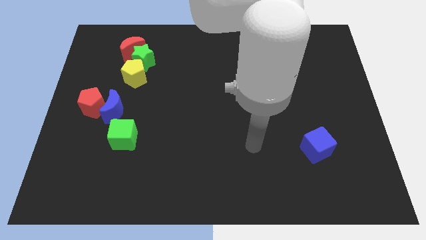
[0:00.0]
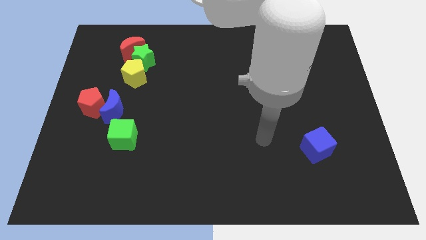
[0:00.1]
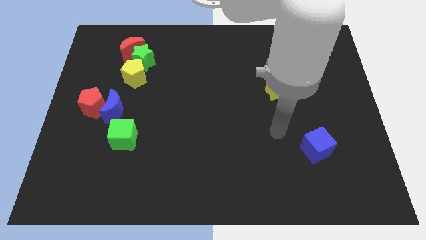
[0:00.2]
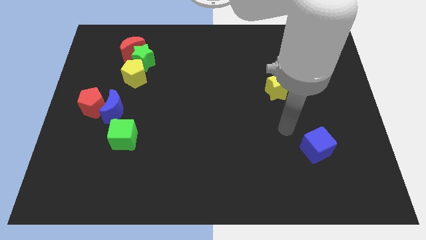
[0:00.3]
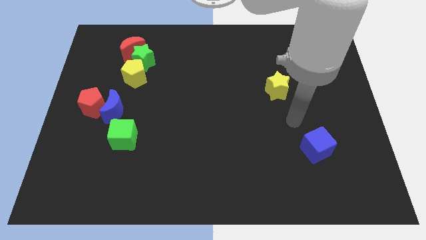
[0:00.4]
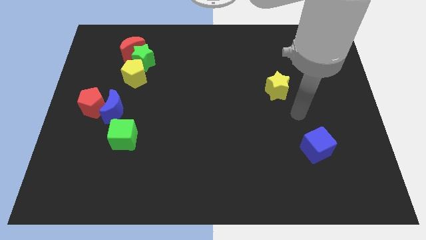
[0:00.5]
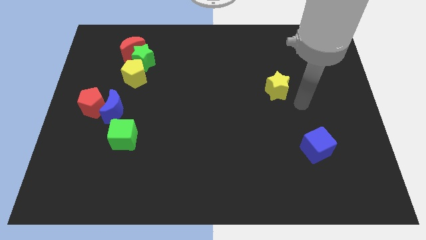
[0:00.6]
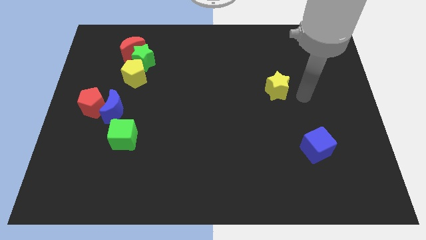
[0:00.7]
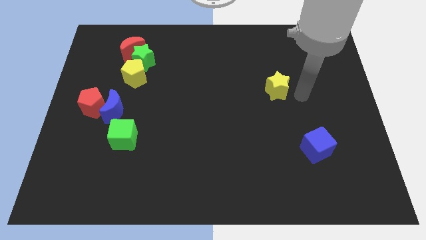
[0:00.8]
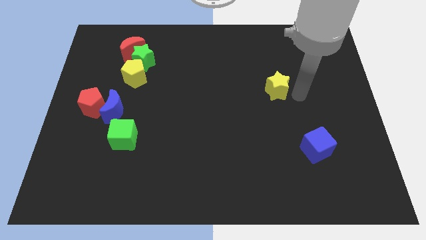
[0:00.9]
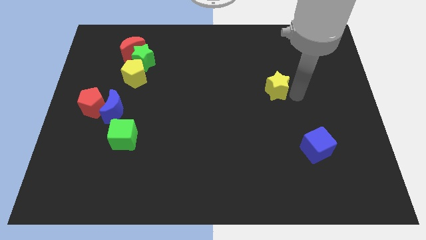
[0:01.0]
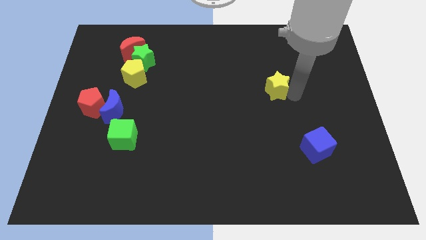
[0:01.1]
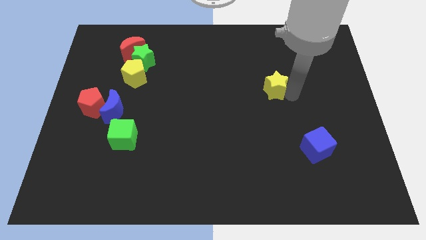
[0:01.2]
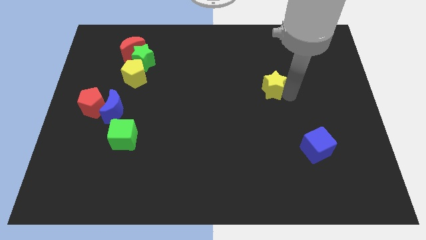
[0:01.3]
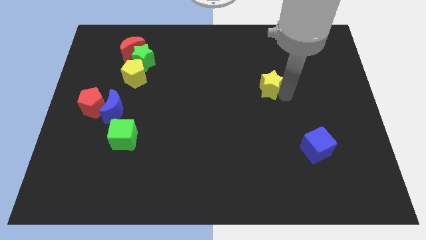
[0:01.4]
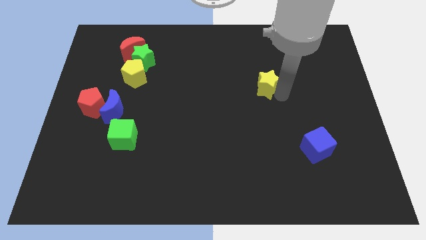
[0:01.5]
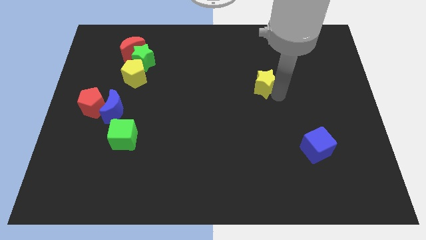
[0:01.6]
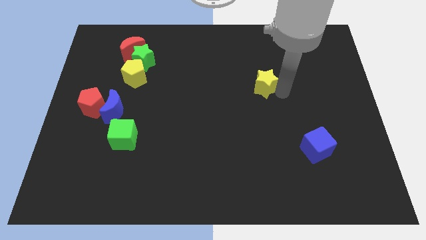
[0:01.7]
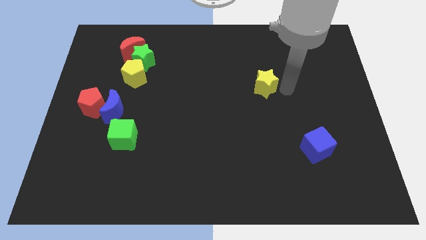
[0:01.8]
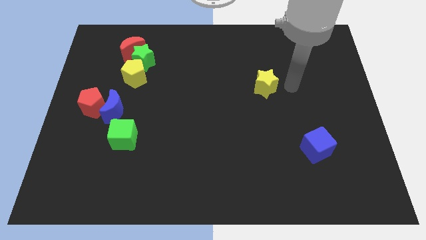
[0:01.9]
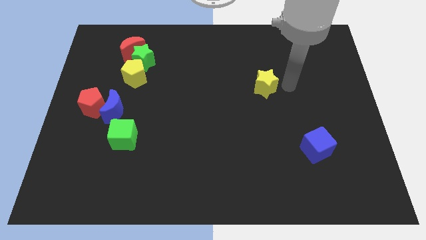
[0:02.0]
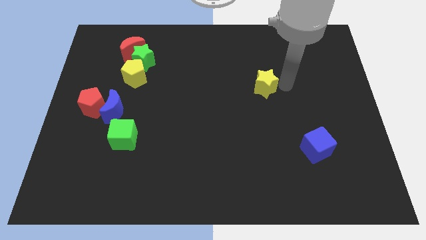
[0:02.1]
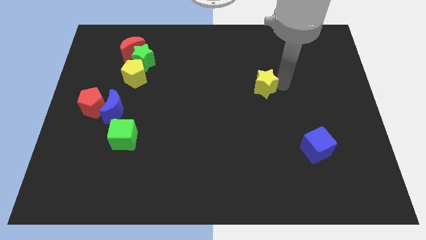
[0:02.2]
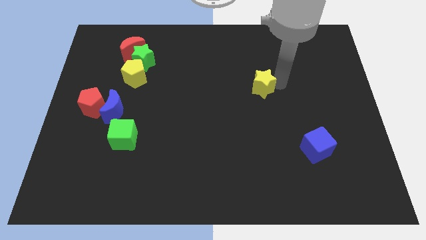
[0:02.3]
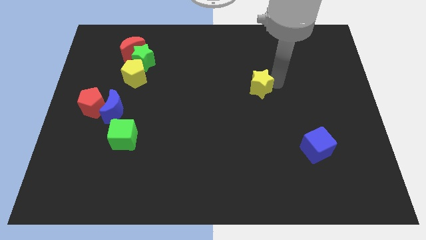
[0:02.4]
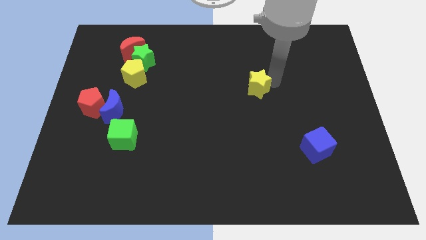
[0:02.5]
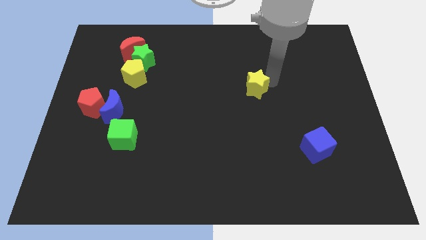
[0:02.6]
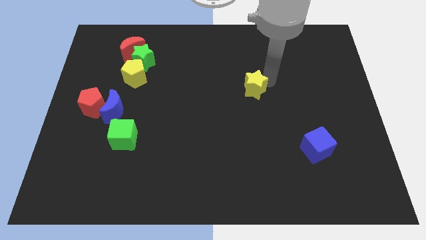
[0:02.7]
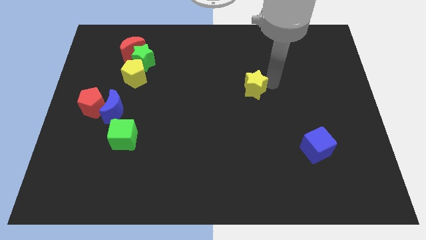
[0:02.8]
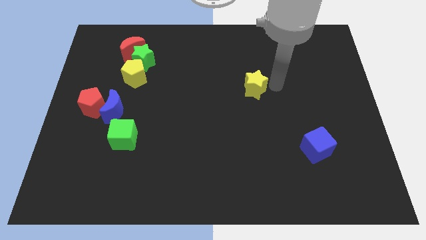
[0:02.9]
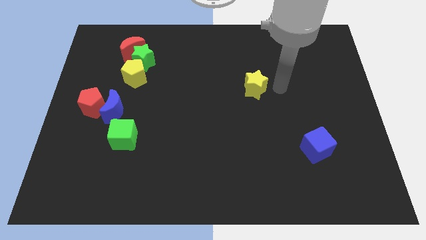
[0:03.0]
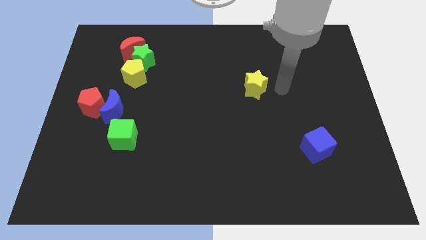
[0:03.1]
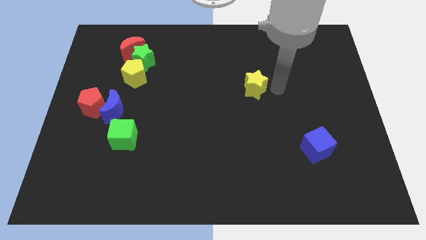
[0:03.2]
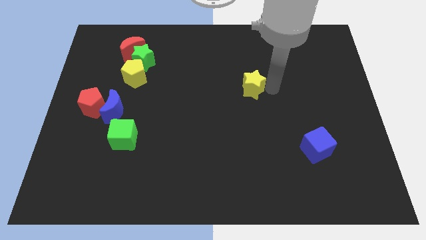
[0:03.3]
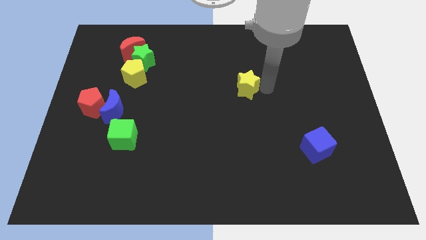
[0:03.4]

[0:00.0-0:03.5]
move the yellow star left a little

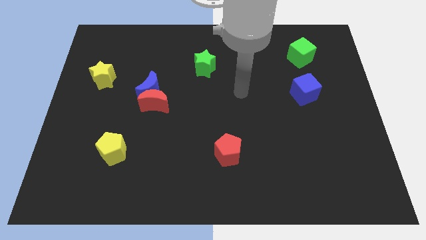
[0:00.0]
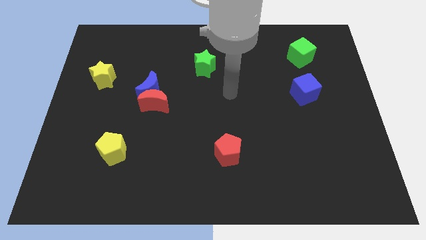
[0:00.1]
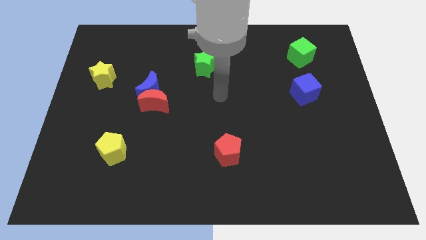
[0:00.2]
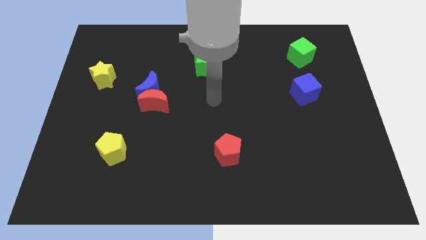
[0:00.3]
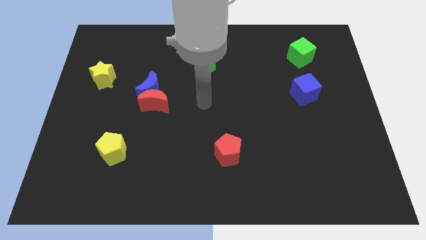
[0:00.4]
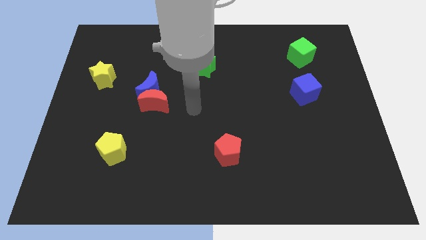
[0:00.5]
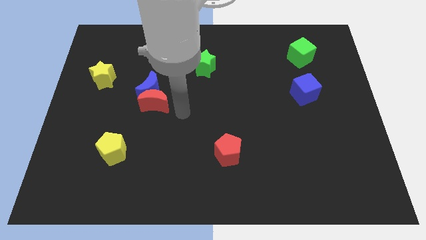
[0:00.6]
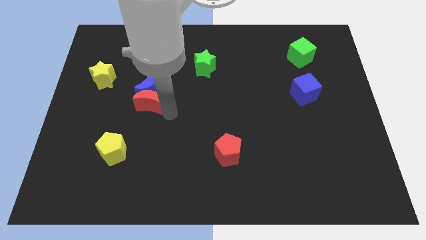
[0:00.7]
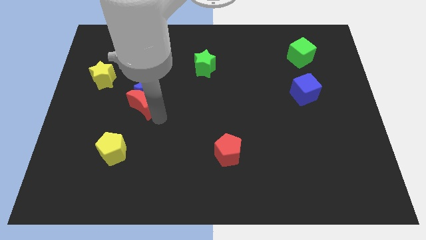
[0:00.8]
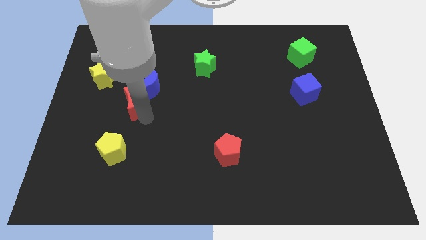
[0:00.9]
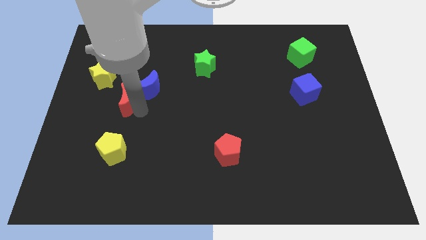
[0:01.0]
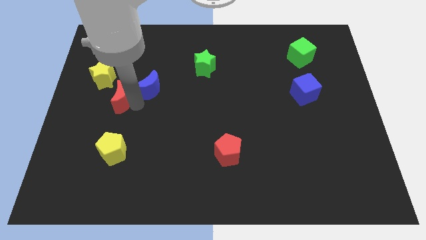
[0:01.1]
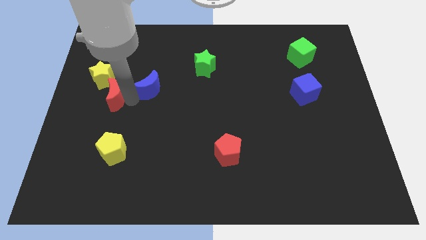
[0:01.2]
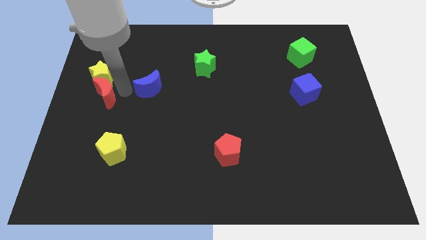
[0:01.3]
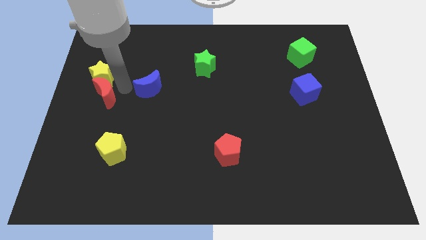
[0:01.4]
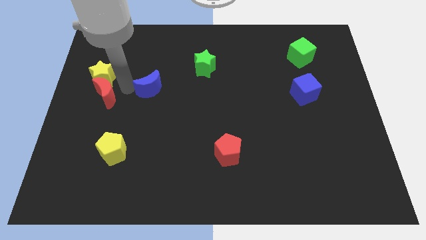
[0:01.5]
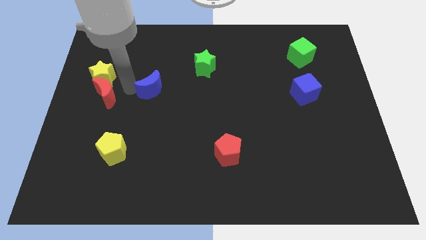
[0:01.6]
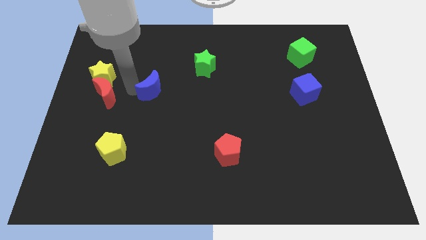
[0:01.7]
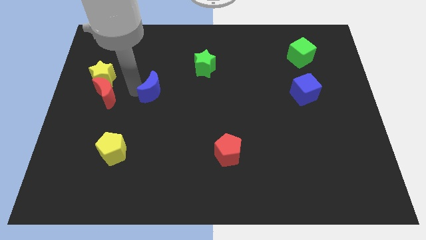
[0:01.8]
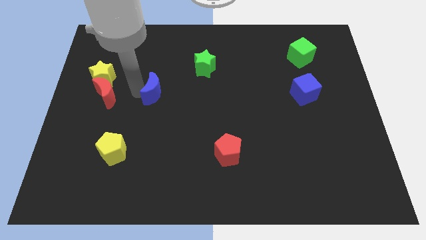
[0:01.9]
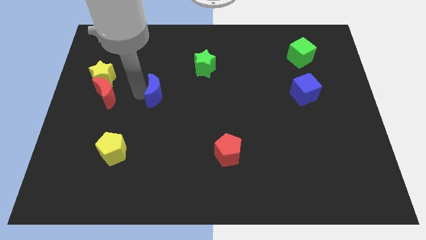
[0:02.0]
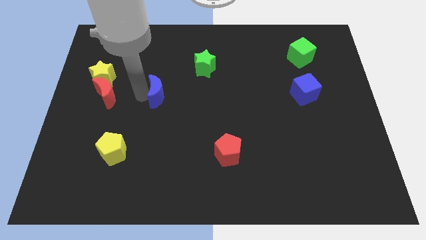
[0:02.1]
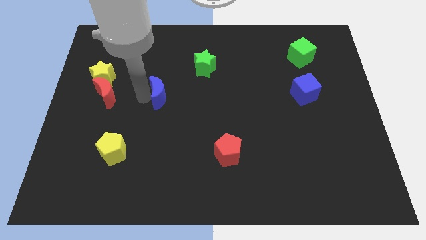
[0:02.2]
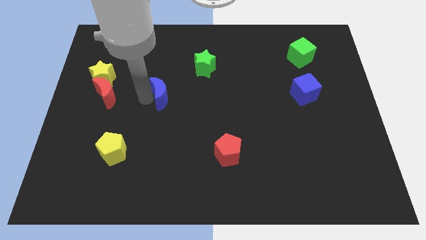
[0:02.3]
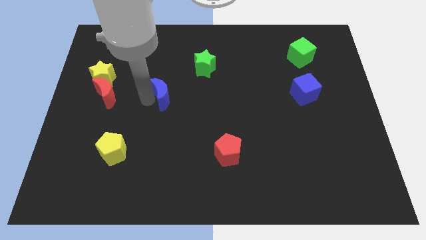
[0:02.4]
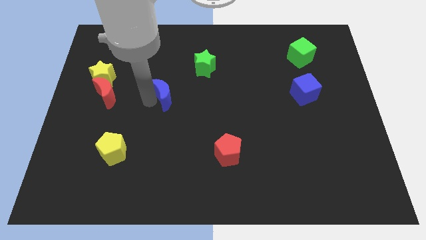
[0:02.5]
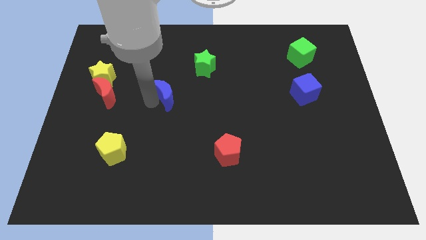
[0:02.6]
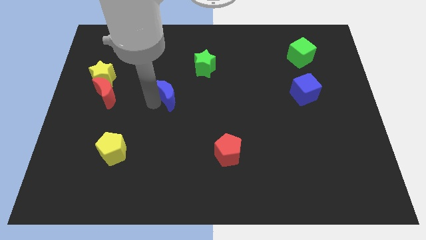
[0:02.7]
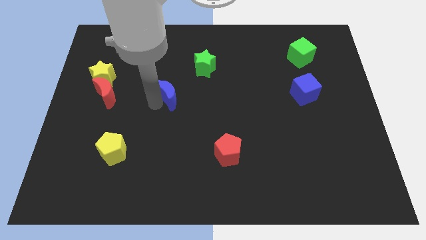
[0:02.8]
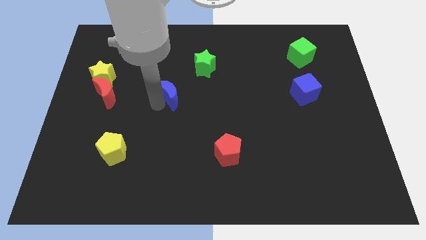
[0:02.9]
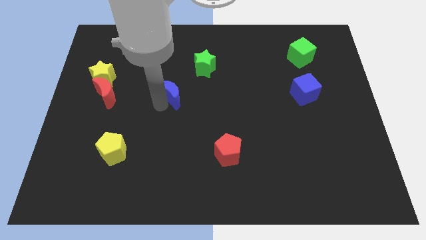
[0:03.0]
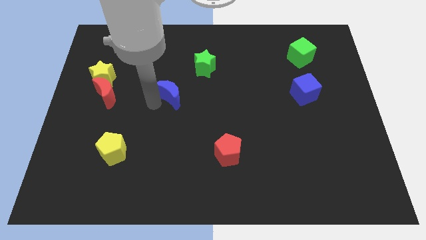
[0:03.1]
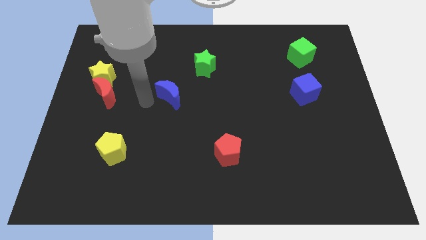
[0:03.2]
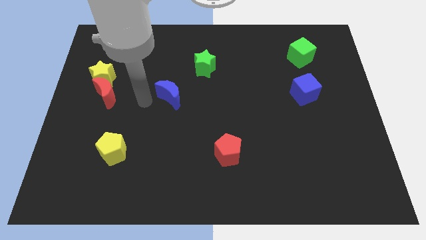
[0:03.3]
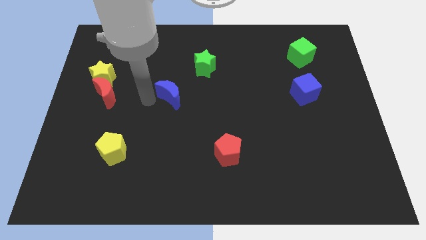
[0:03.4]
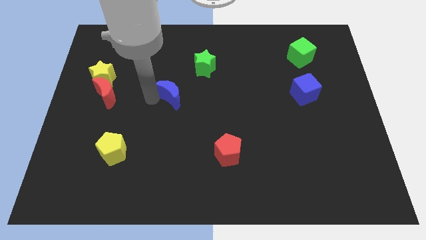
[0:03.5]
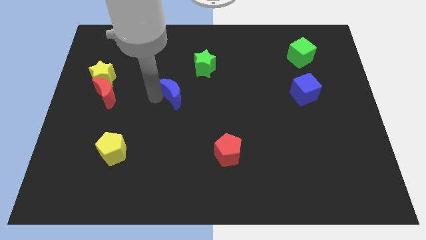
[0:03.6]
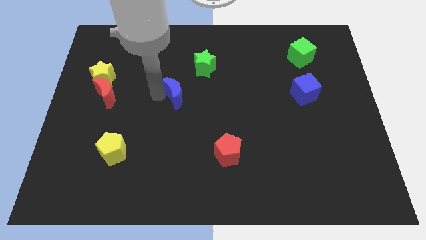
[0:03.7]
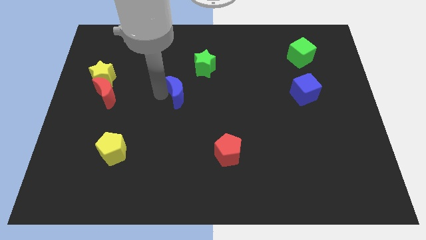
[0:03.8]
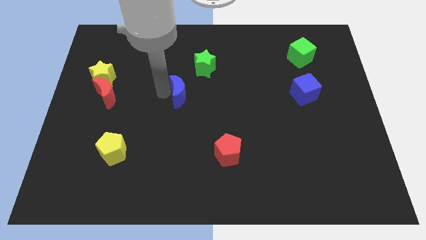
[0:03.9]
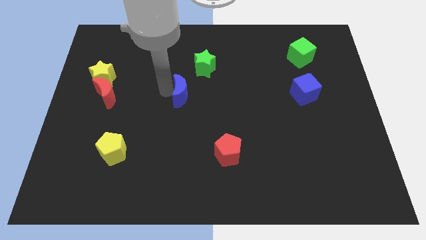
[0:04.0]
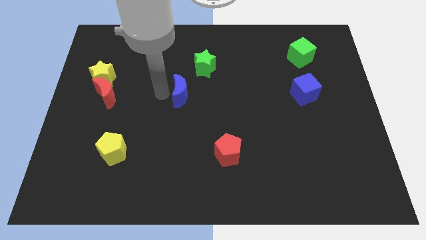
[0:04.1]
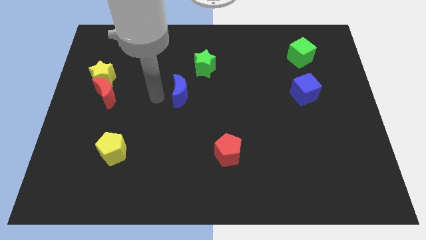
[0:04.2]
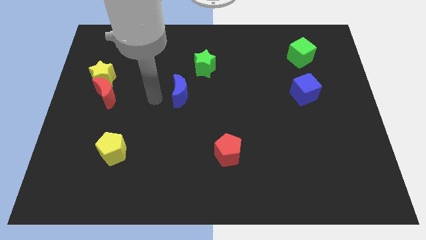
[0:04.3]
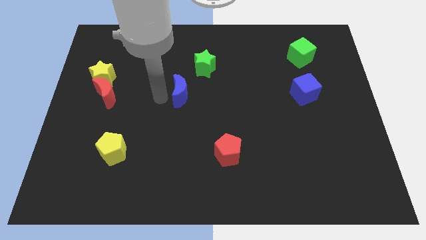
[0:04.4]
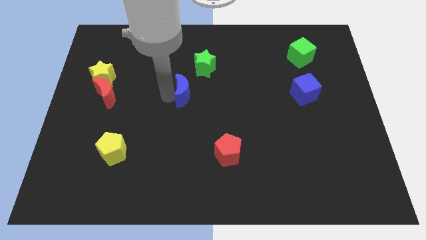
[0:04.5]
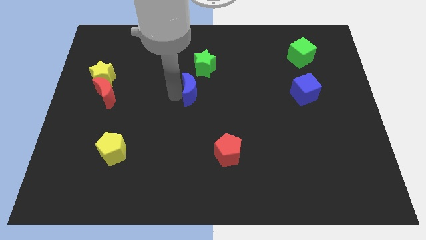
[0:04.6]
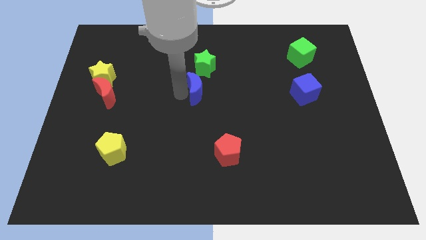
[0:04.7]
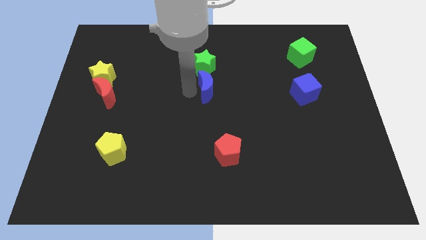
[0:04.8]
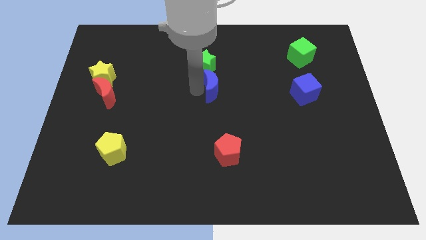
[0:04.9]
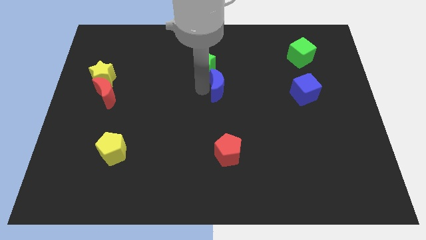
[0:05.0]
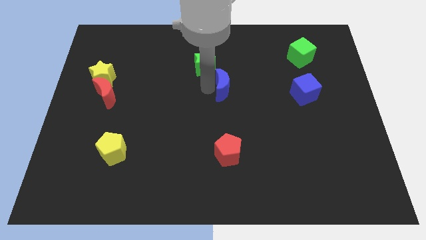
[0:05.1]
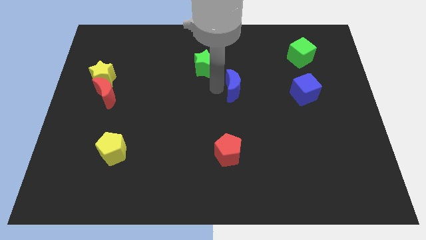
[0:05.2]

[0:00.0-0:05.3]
push the blue moon right
